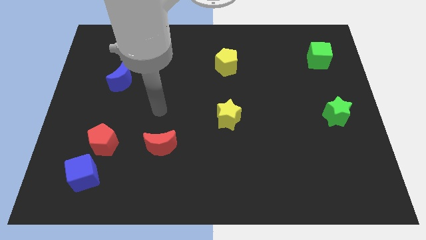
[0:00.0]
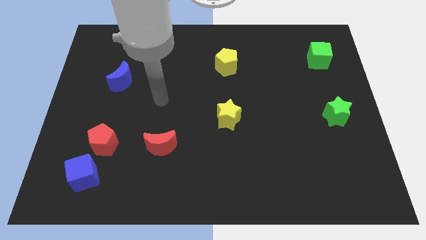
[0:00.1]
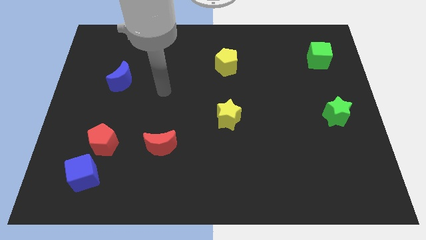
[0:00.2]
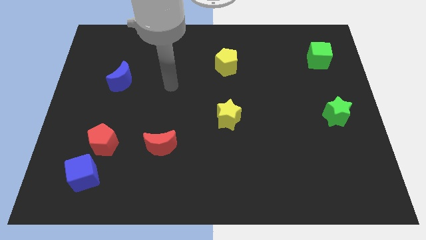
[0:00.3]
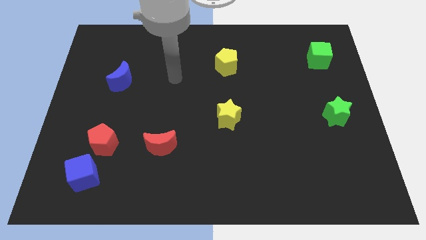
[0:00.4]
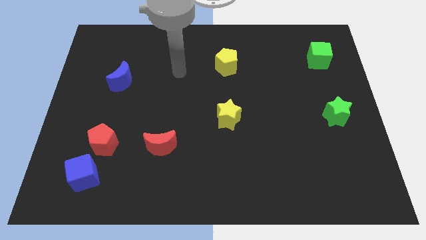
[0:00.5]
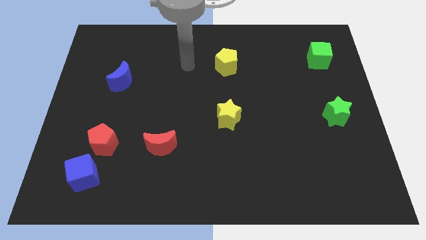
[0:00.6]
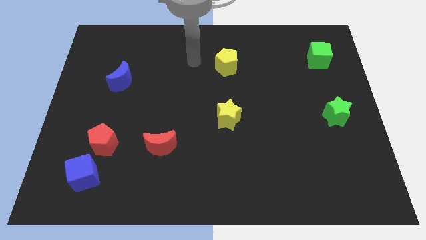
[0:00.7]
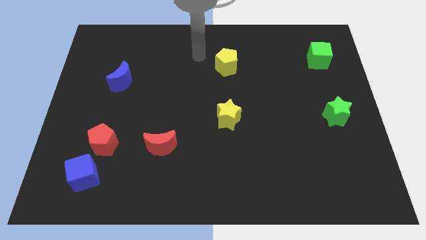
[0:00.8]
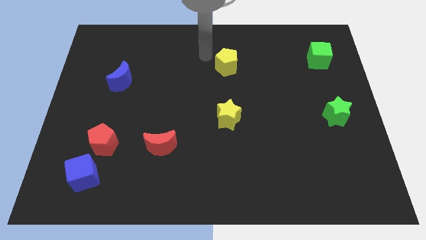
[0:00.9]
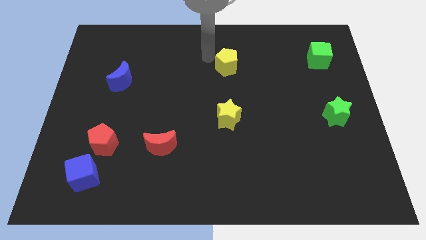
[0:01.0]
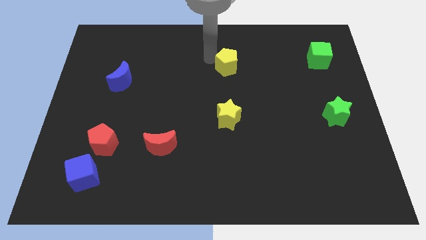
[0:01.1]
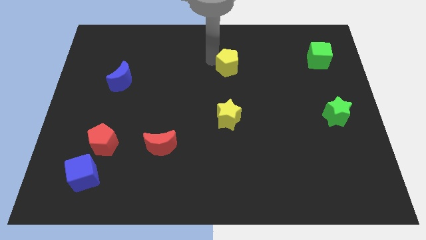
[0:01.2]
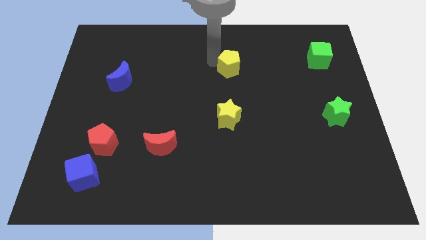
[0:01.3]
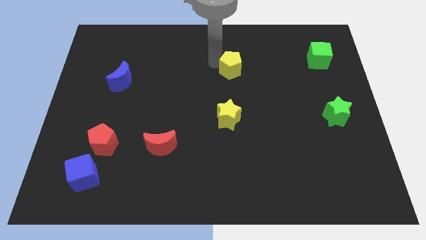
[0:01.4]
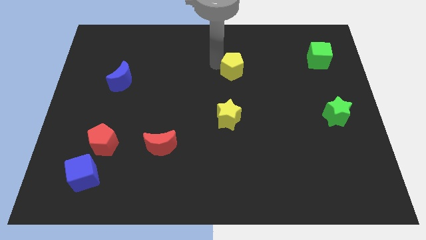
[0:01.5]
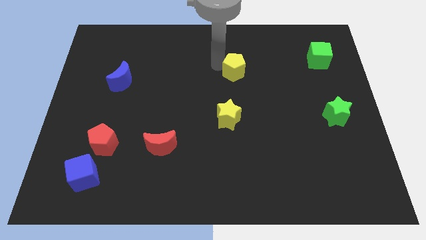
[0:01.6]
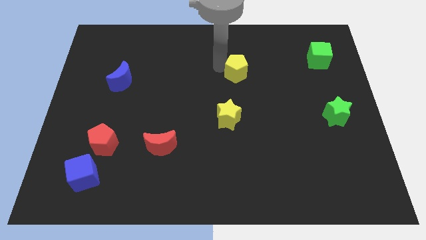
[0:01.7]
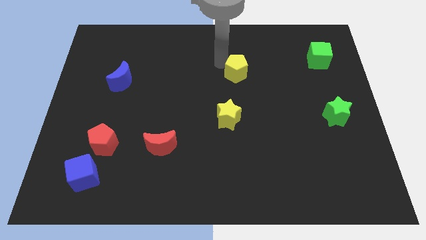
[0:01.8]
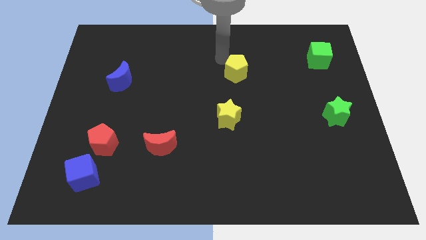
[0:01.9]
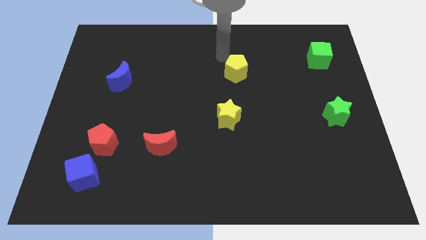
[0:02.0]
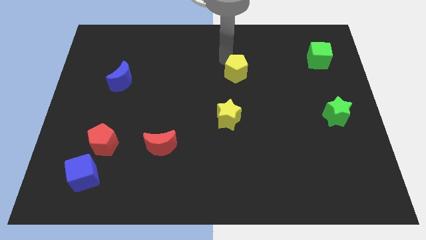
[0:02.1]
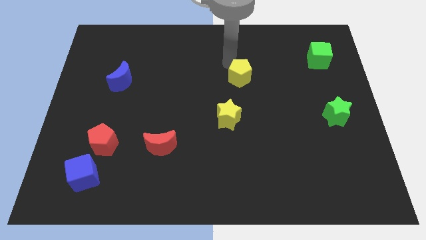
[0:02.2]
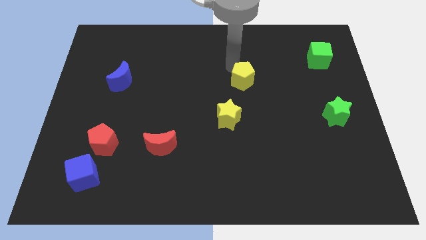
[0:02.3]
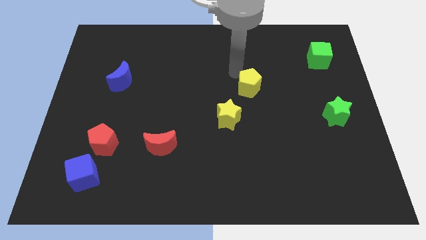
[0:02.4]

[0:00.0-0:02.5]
slightly push the yellow pentagon downwards and then right

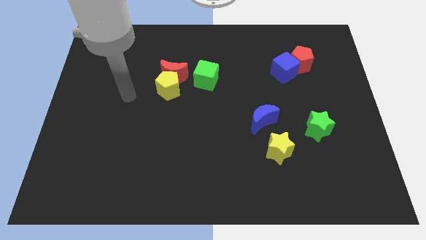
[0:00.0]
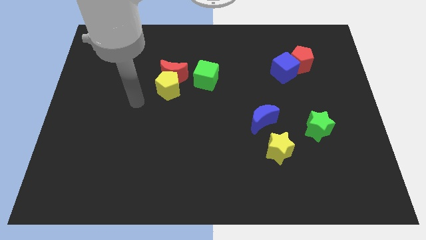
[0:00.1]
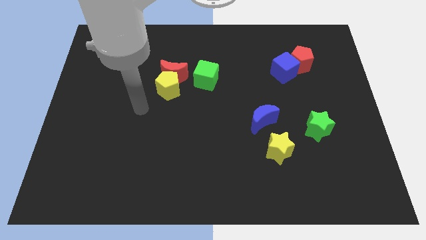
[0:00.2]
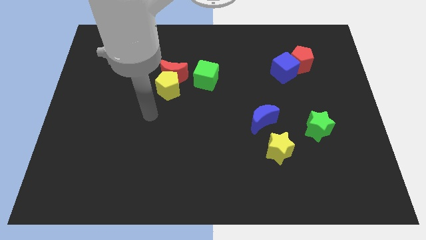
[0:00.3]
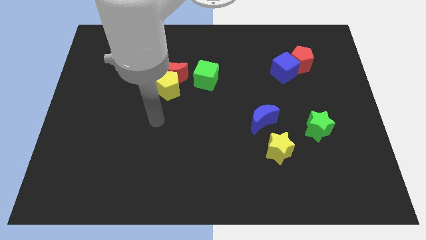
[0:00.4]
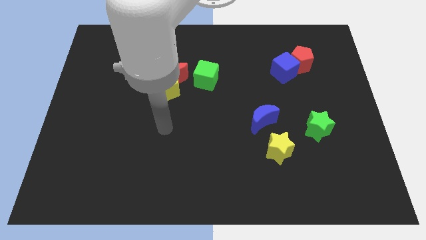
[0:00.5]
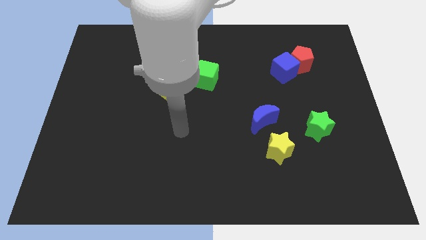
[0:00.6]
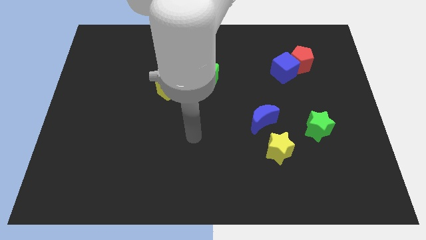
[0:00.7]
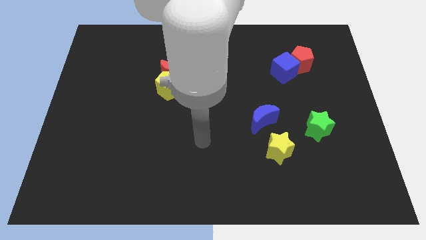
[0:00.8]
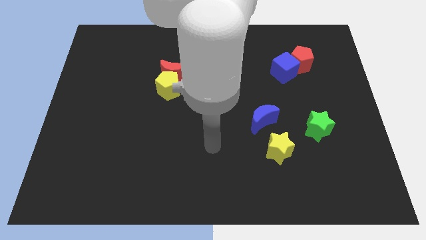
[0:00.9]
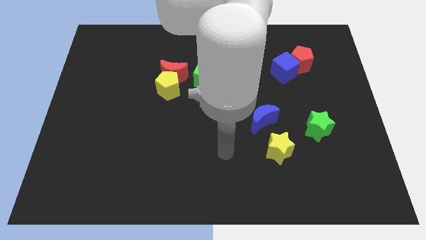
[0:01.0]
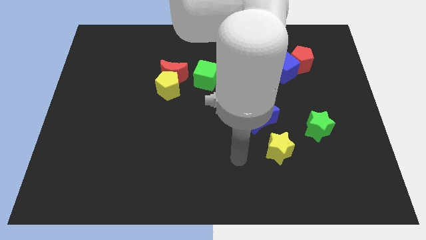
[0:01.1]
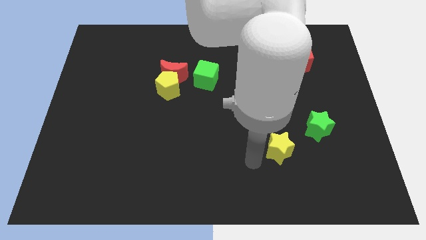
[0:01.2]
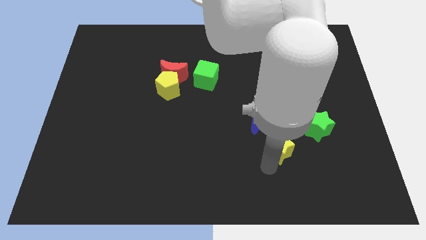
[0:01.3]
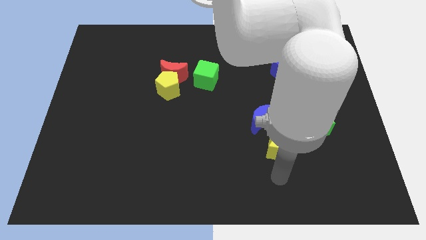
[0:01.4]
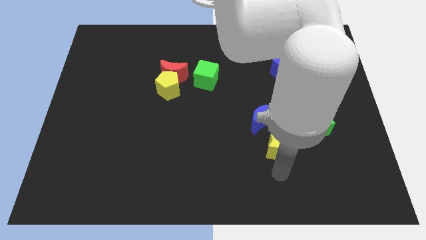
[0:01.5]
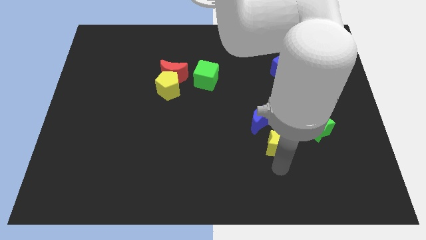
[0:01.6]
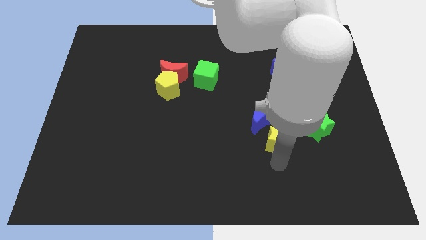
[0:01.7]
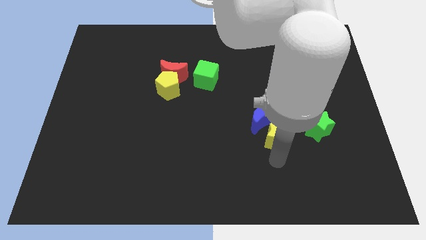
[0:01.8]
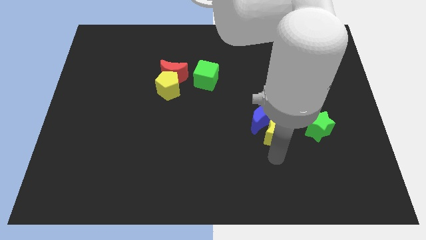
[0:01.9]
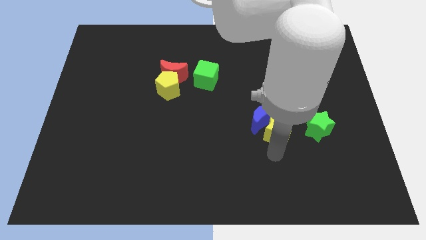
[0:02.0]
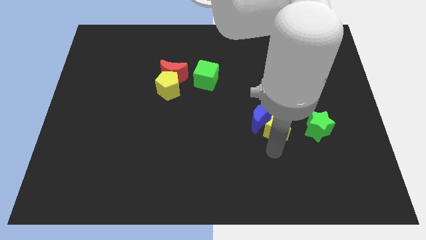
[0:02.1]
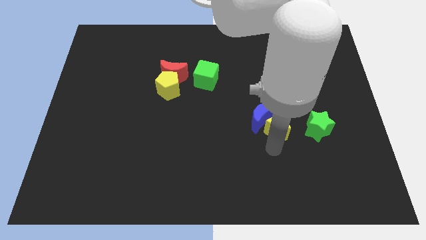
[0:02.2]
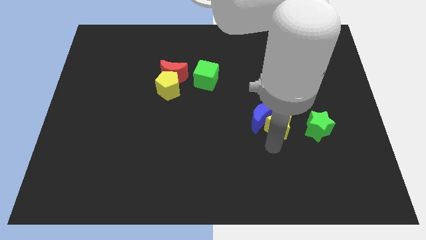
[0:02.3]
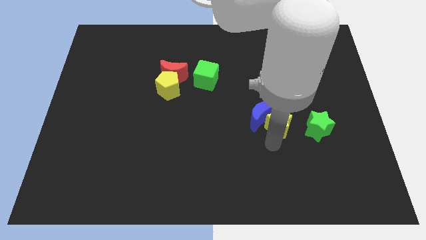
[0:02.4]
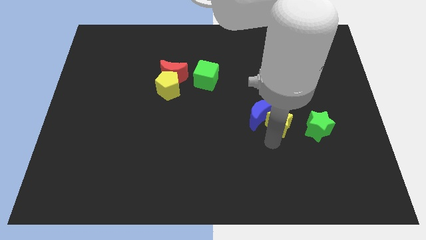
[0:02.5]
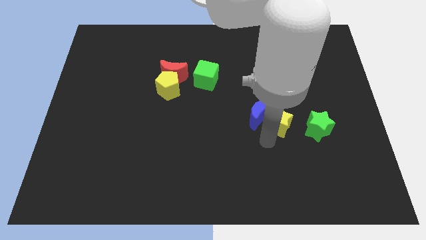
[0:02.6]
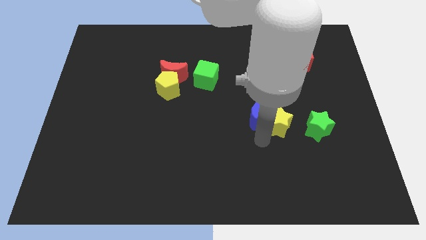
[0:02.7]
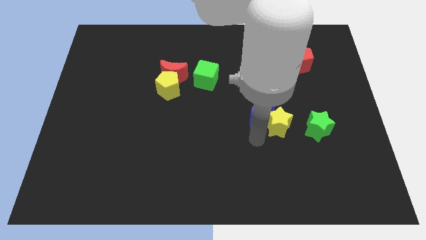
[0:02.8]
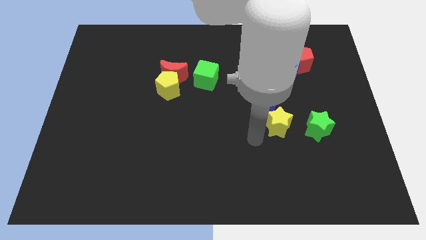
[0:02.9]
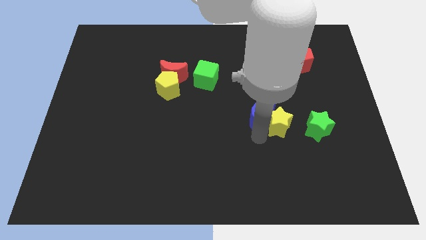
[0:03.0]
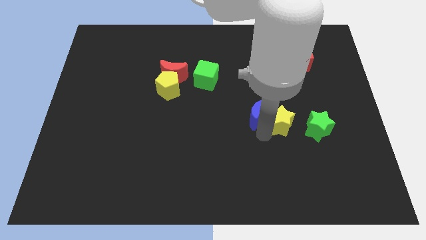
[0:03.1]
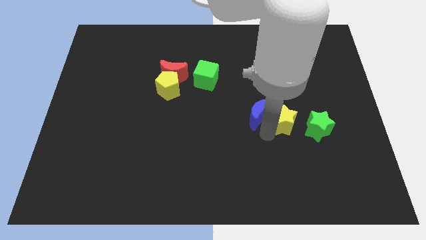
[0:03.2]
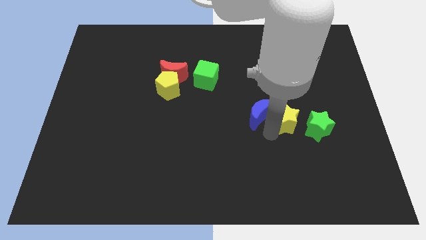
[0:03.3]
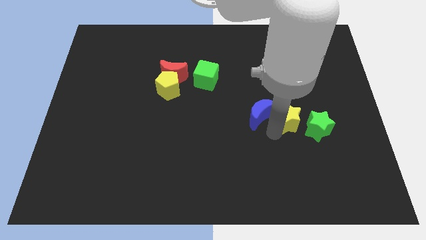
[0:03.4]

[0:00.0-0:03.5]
slide the yellow star up and right a little bit

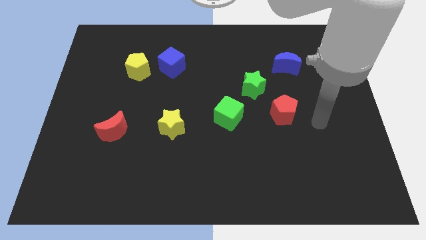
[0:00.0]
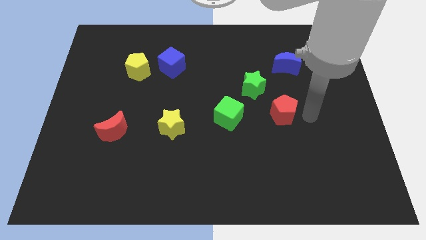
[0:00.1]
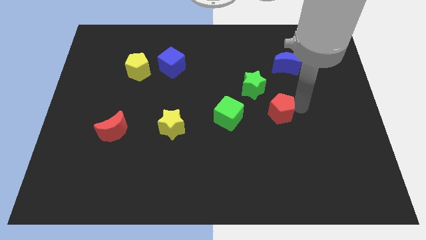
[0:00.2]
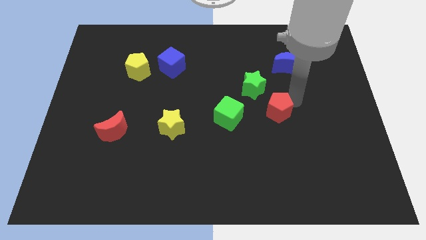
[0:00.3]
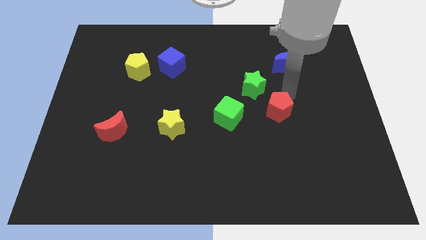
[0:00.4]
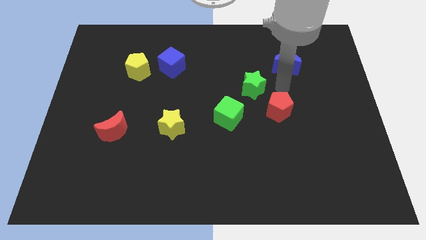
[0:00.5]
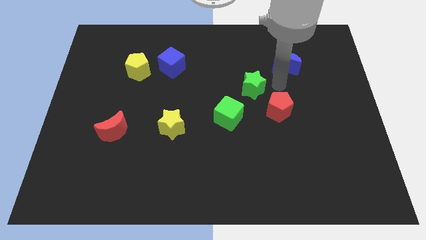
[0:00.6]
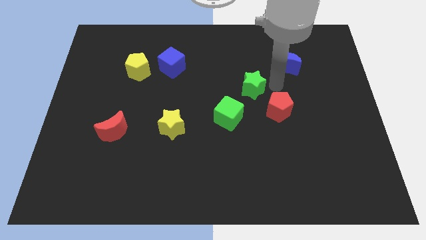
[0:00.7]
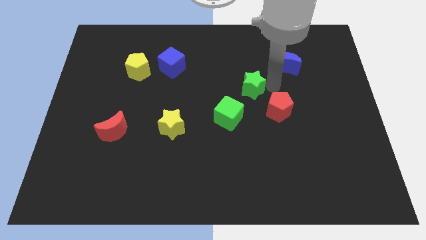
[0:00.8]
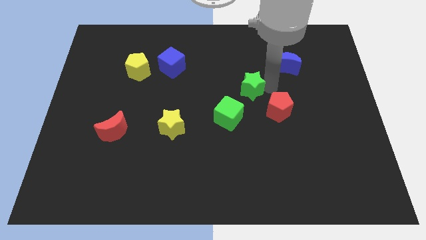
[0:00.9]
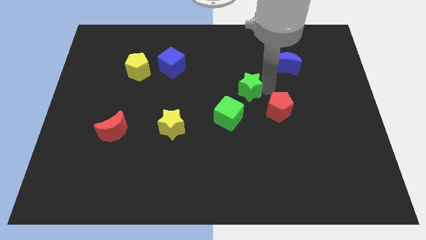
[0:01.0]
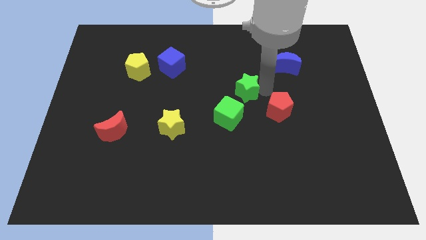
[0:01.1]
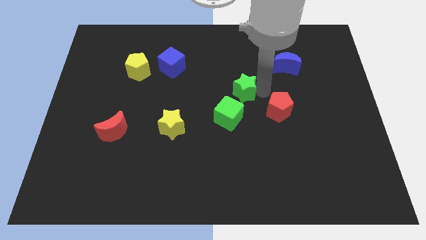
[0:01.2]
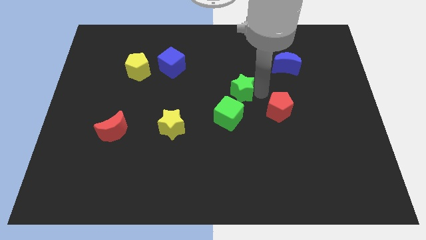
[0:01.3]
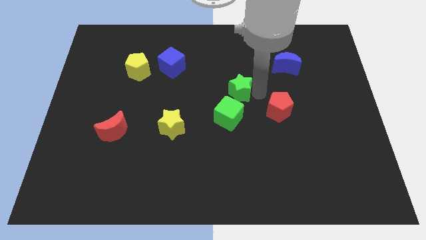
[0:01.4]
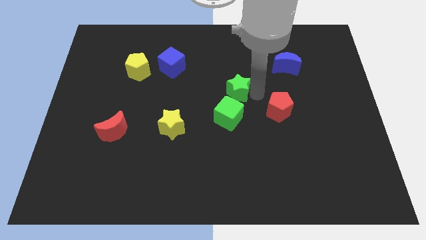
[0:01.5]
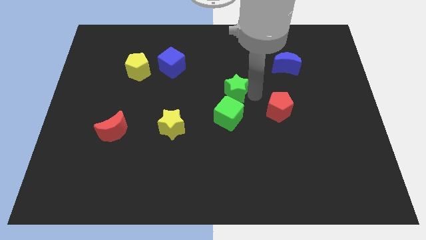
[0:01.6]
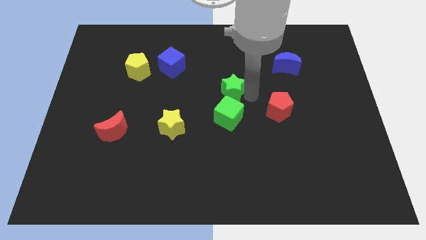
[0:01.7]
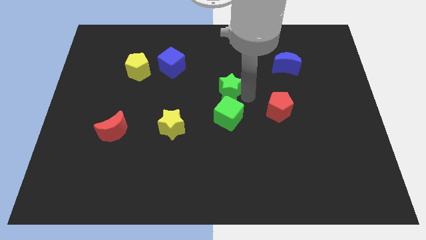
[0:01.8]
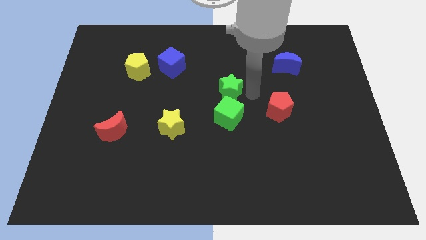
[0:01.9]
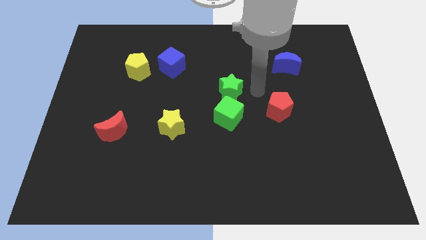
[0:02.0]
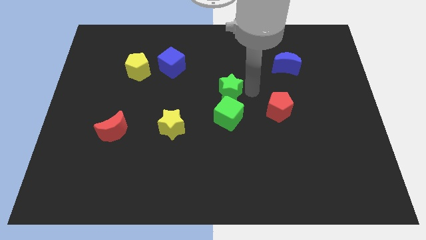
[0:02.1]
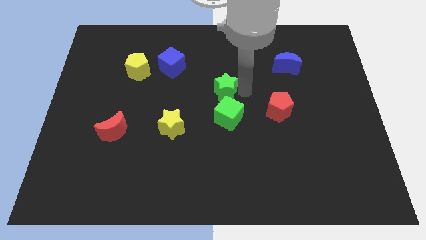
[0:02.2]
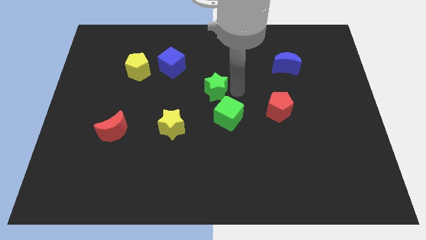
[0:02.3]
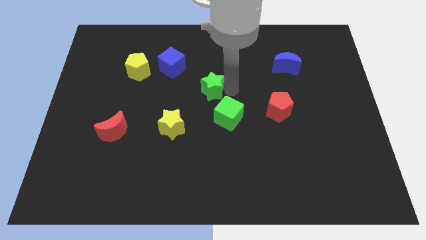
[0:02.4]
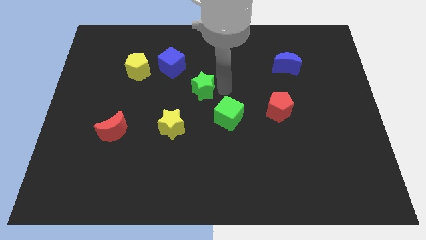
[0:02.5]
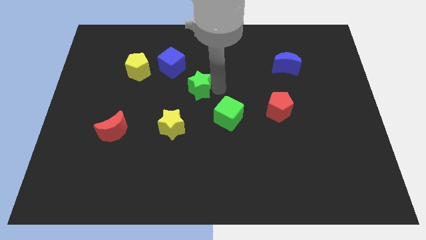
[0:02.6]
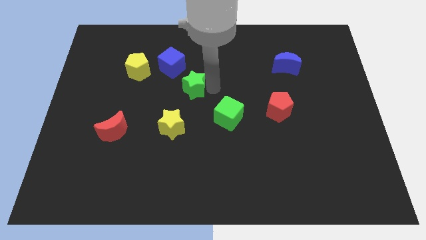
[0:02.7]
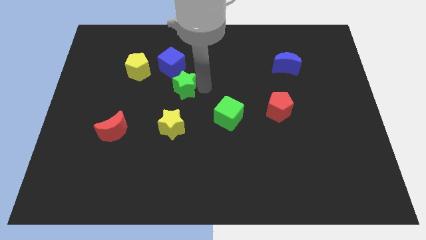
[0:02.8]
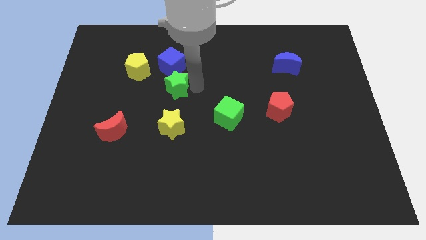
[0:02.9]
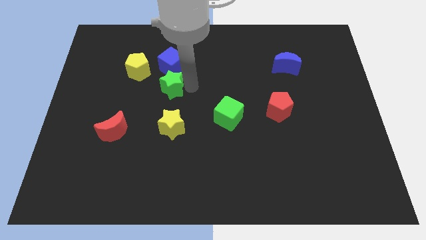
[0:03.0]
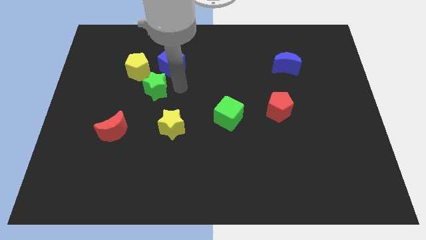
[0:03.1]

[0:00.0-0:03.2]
push the green star to the left
